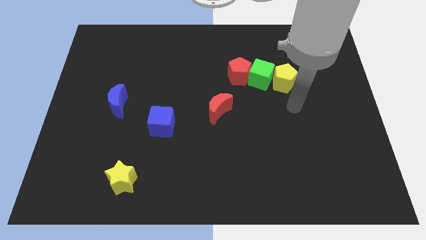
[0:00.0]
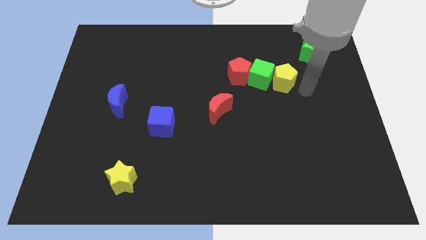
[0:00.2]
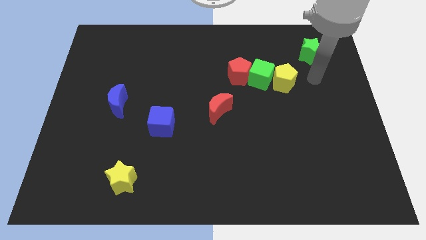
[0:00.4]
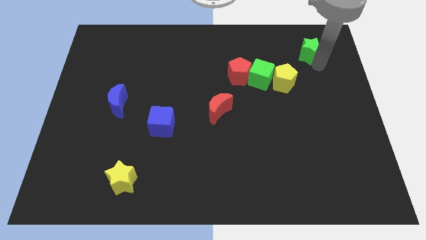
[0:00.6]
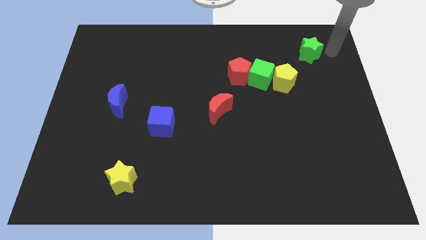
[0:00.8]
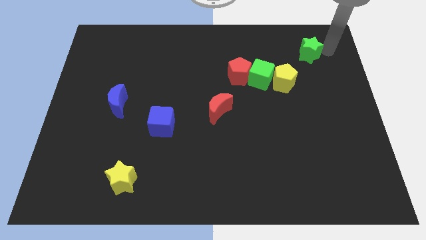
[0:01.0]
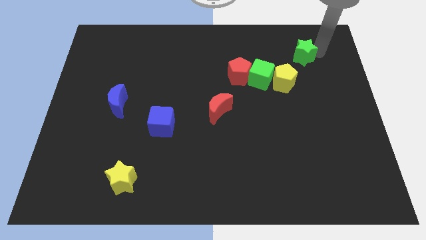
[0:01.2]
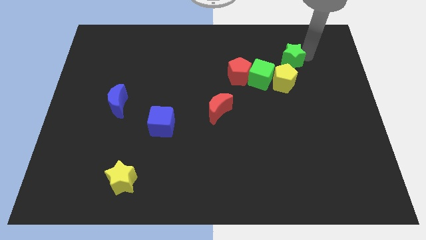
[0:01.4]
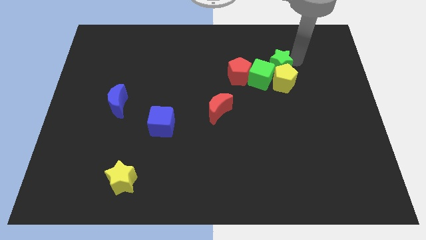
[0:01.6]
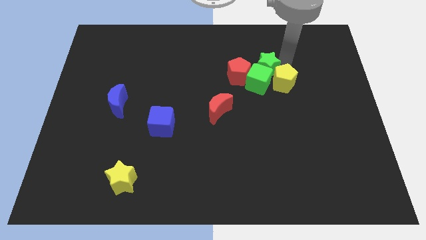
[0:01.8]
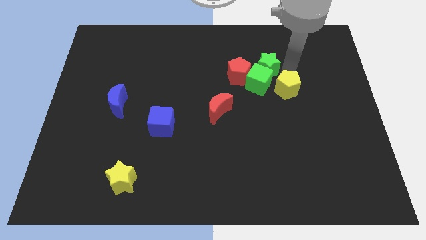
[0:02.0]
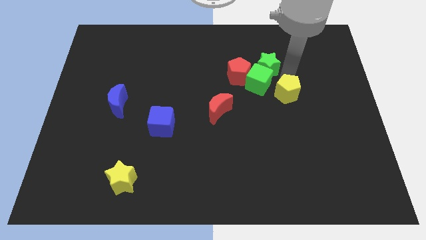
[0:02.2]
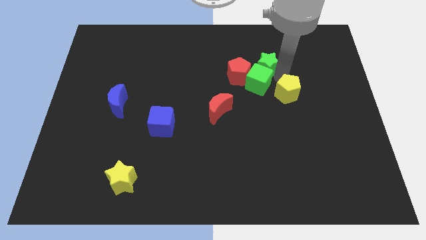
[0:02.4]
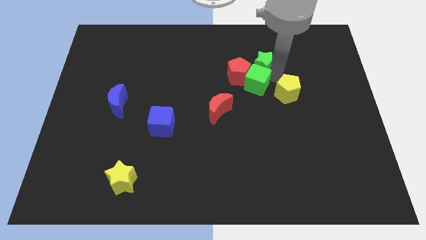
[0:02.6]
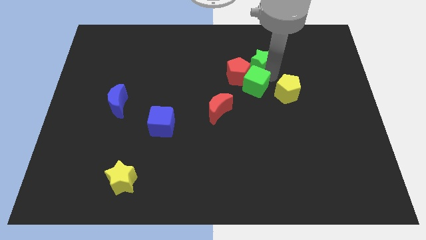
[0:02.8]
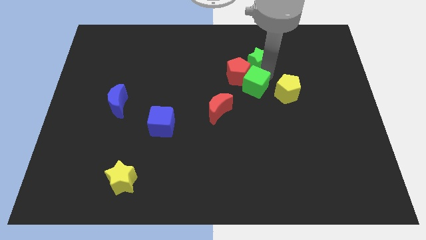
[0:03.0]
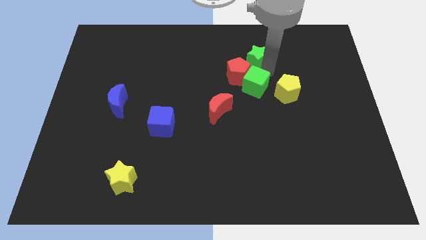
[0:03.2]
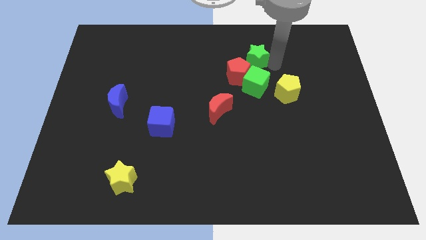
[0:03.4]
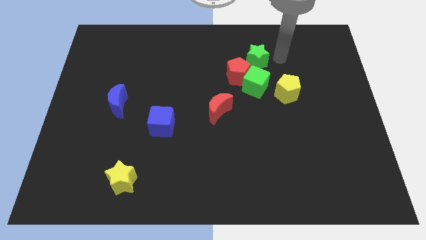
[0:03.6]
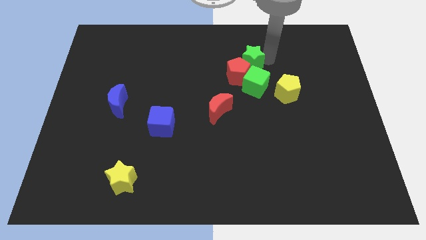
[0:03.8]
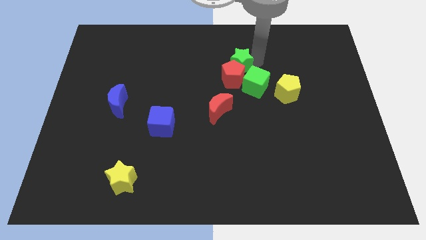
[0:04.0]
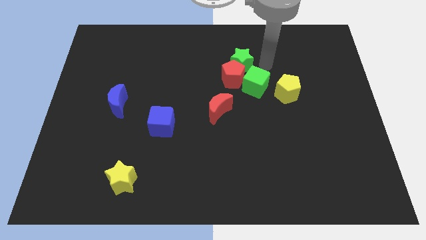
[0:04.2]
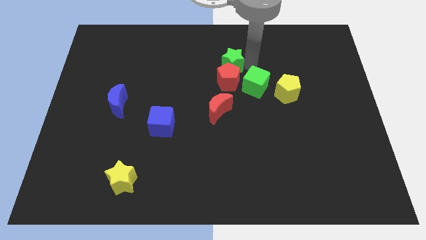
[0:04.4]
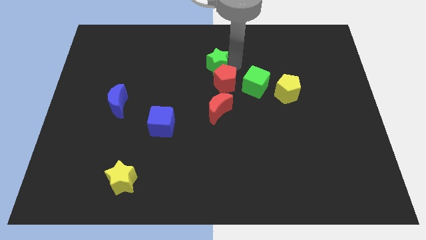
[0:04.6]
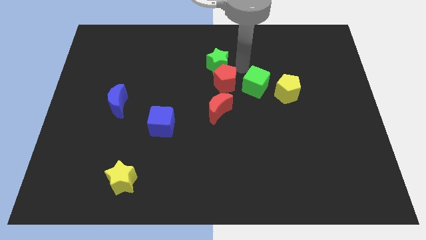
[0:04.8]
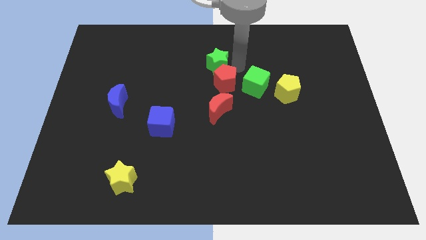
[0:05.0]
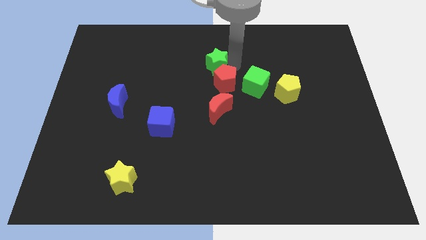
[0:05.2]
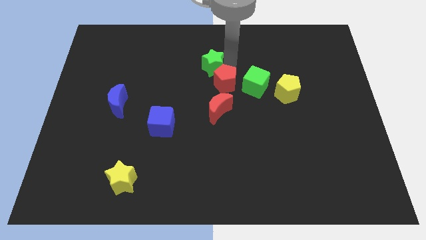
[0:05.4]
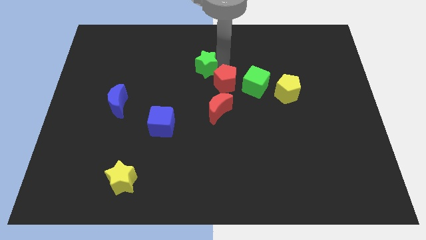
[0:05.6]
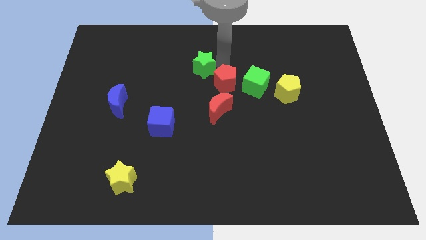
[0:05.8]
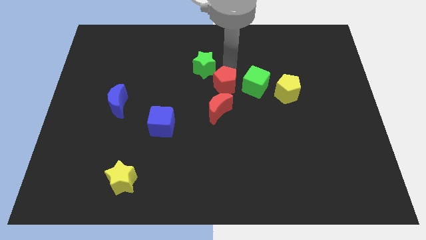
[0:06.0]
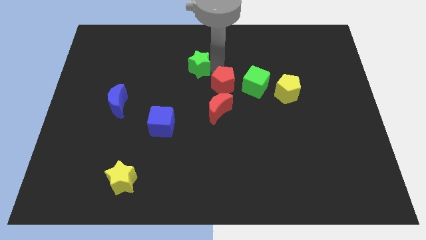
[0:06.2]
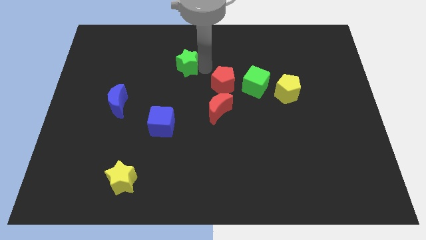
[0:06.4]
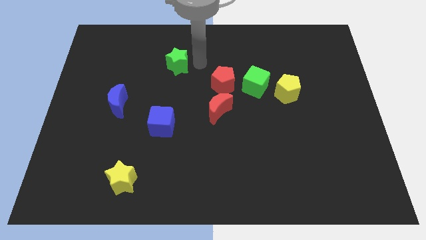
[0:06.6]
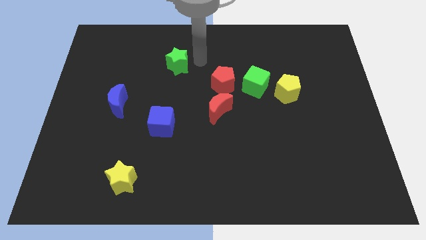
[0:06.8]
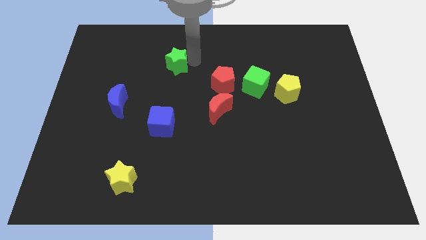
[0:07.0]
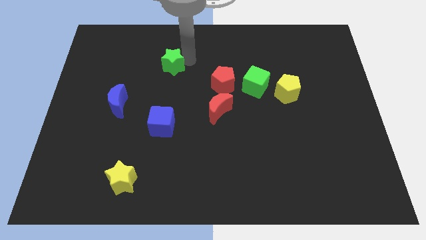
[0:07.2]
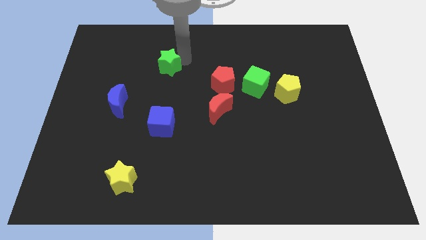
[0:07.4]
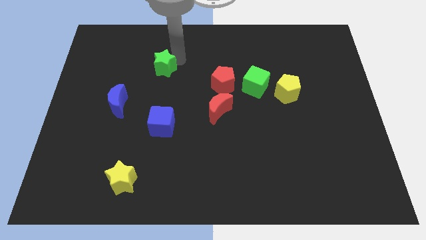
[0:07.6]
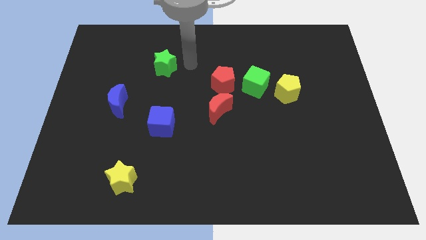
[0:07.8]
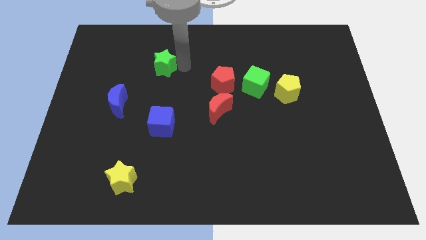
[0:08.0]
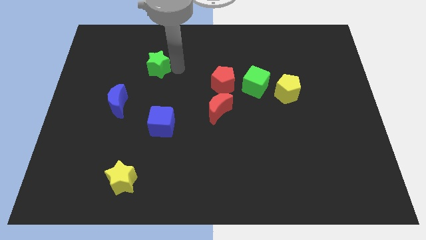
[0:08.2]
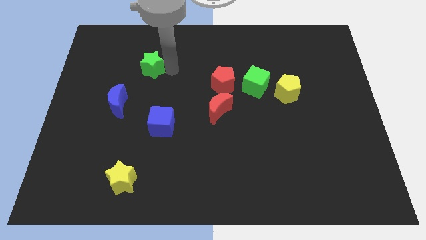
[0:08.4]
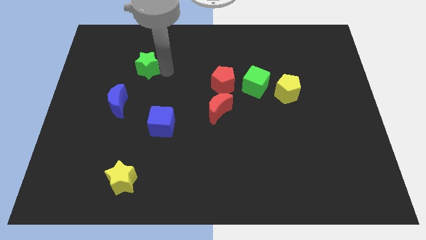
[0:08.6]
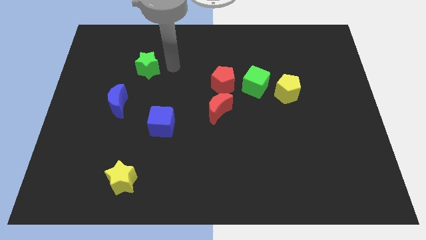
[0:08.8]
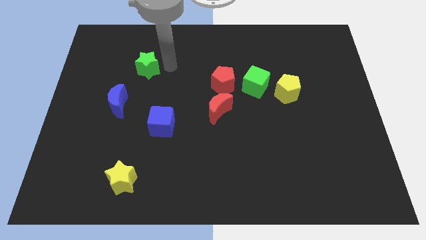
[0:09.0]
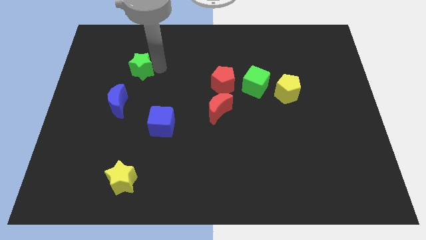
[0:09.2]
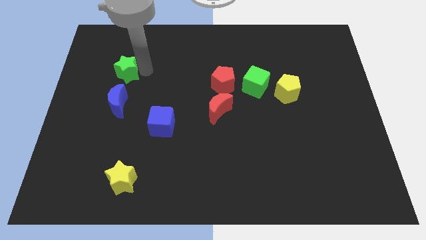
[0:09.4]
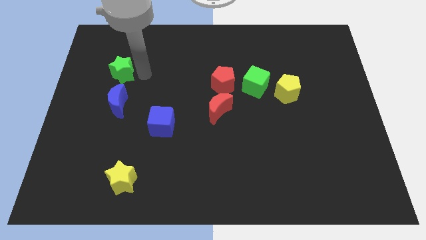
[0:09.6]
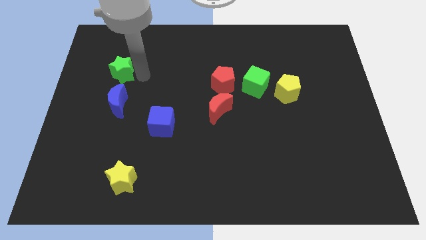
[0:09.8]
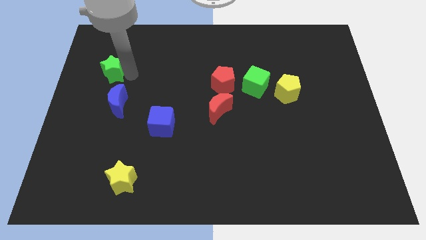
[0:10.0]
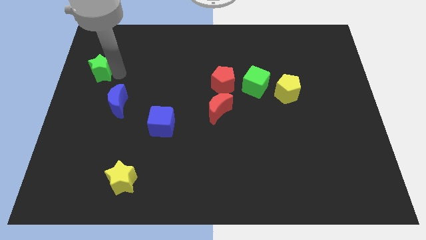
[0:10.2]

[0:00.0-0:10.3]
push the green star to the left side
